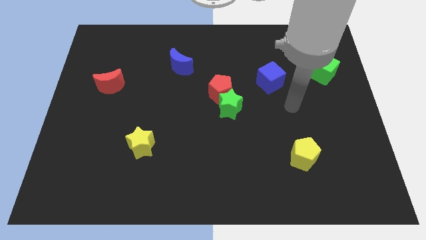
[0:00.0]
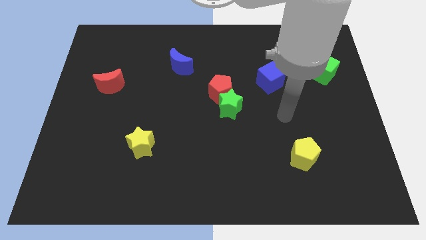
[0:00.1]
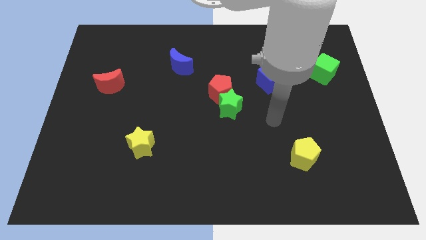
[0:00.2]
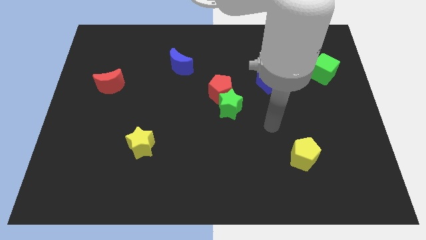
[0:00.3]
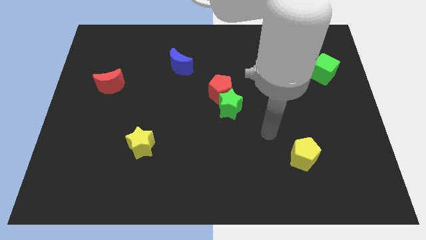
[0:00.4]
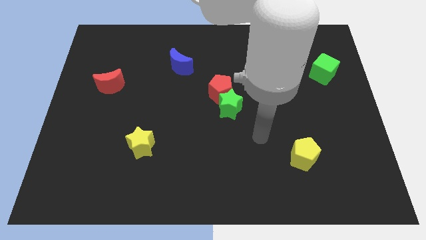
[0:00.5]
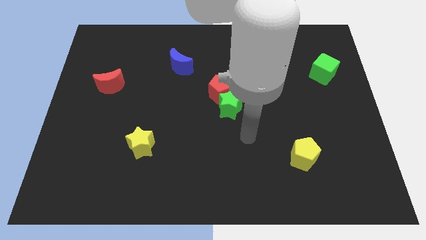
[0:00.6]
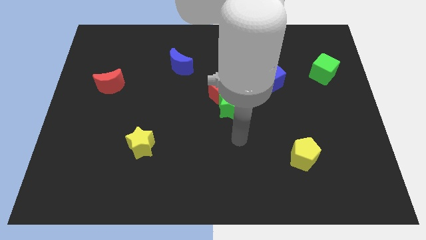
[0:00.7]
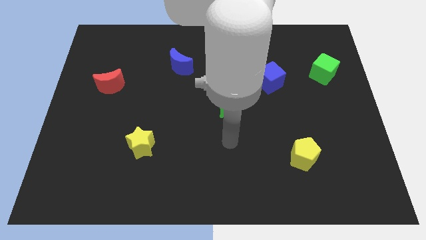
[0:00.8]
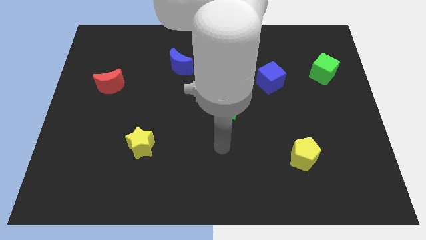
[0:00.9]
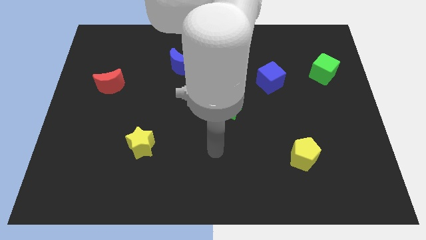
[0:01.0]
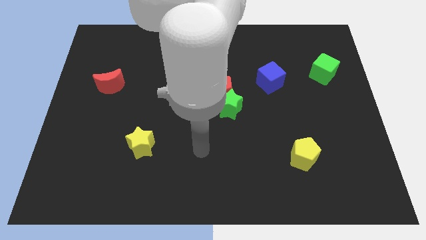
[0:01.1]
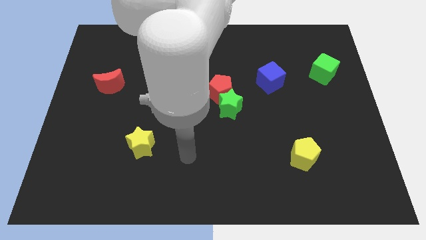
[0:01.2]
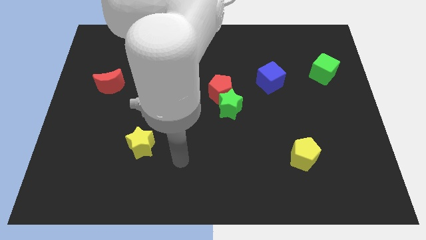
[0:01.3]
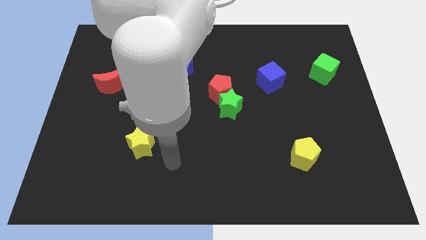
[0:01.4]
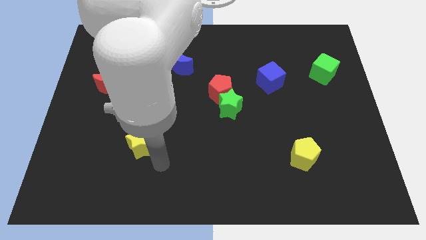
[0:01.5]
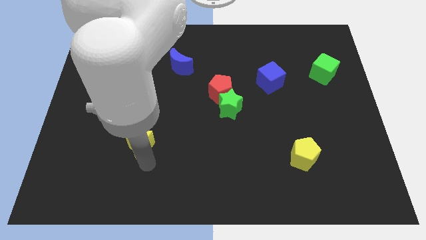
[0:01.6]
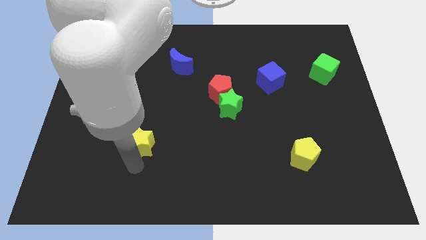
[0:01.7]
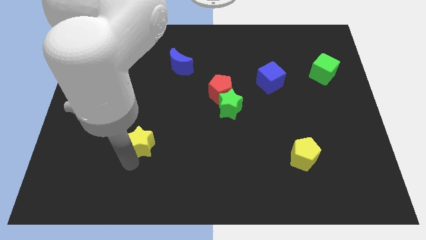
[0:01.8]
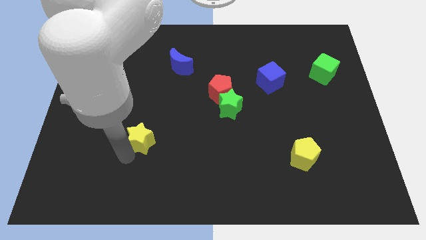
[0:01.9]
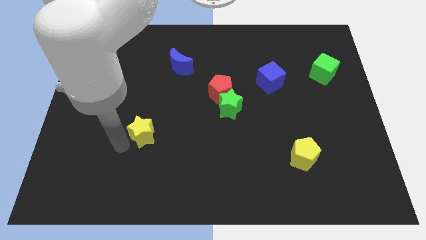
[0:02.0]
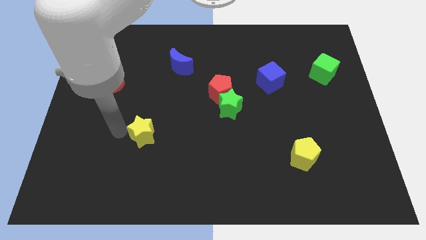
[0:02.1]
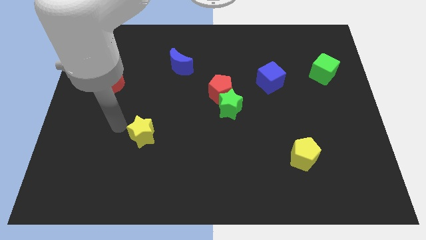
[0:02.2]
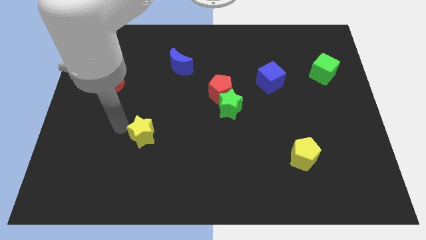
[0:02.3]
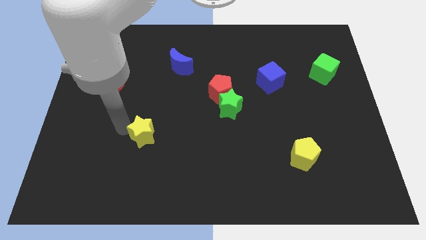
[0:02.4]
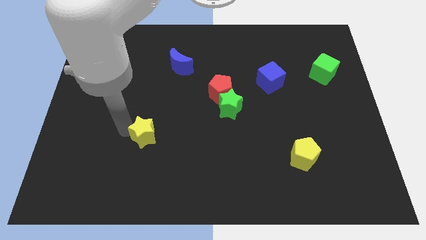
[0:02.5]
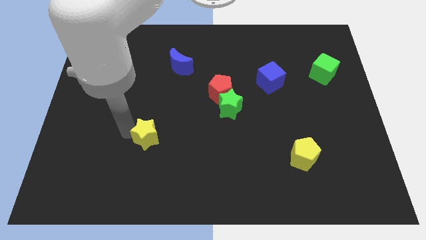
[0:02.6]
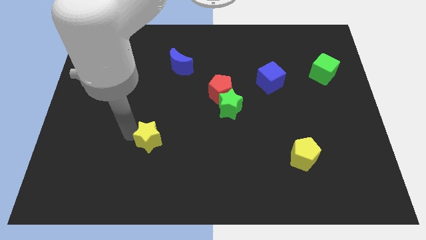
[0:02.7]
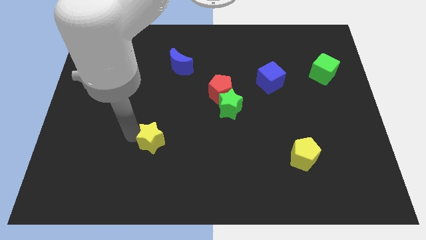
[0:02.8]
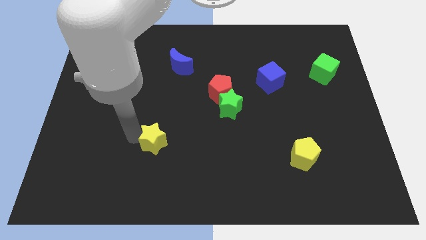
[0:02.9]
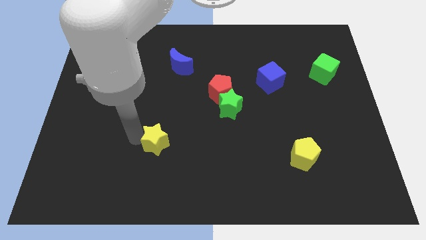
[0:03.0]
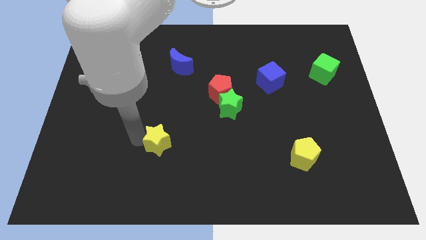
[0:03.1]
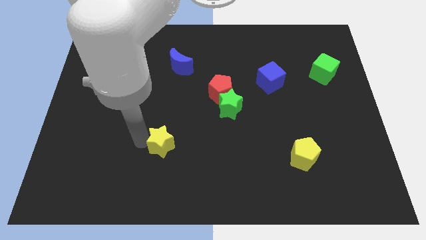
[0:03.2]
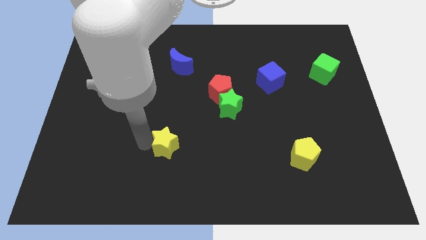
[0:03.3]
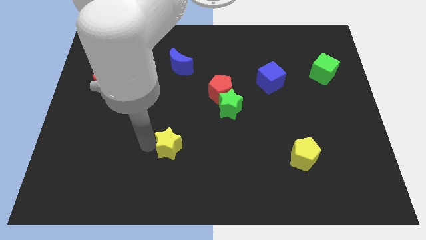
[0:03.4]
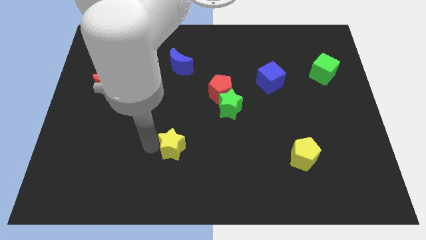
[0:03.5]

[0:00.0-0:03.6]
push the yellow star right somewhat

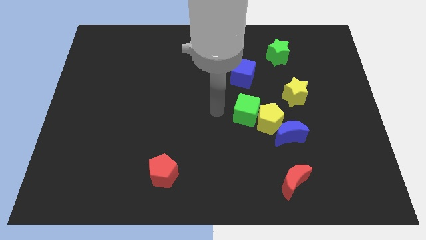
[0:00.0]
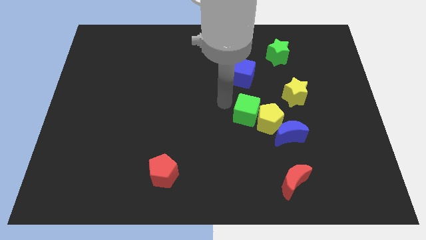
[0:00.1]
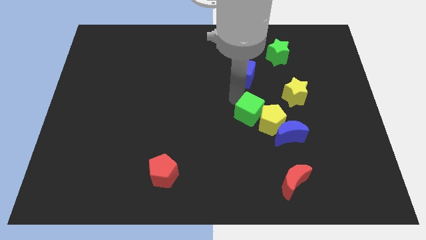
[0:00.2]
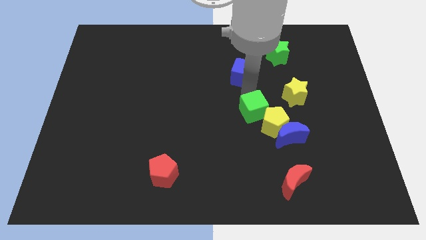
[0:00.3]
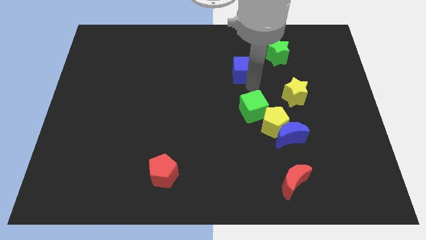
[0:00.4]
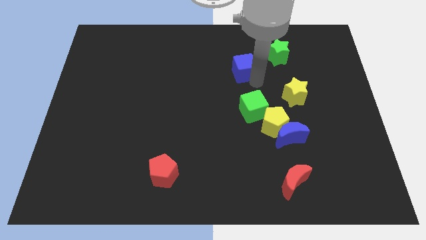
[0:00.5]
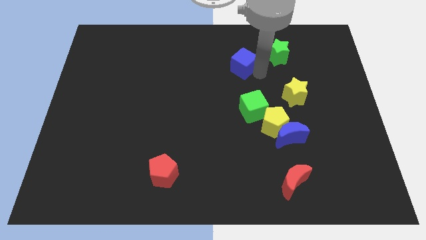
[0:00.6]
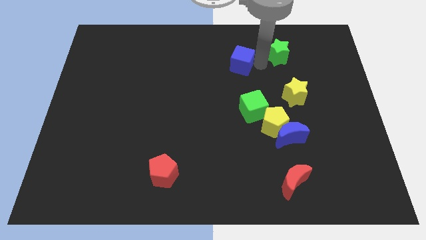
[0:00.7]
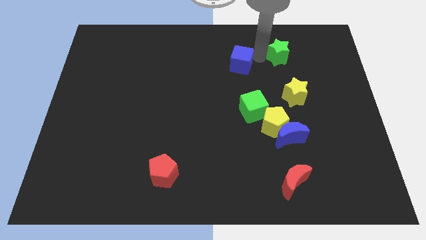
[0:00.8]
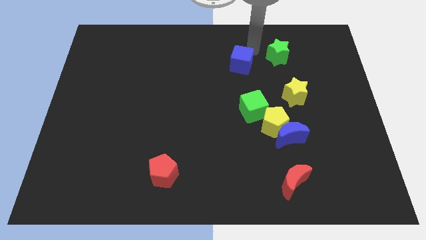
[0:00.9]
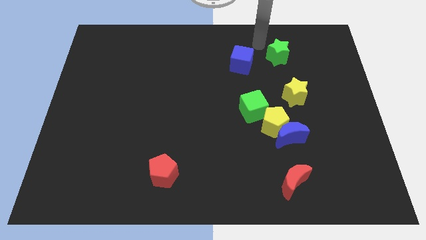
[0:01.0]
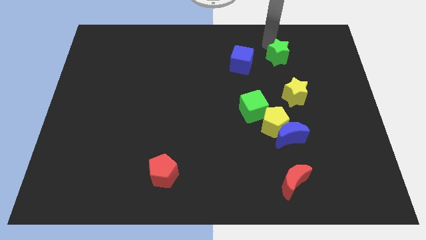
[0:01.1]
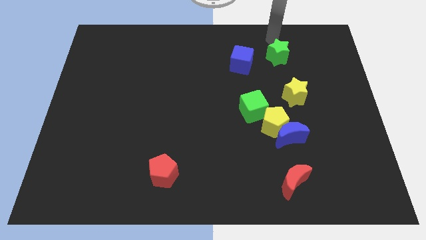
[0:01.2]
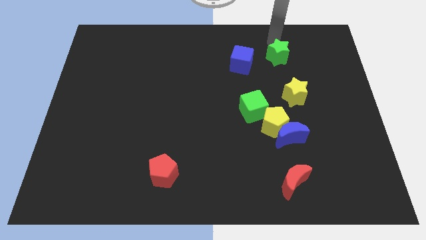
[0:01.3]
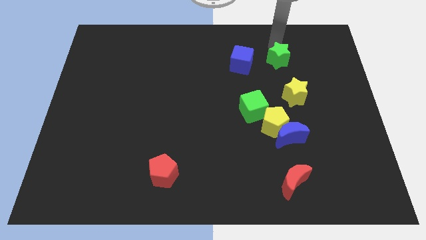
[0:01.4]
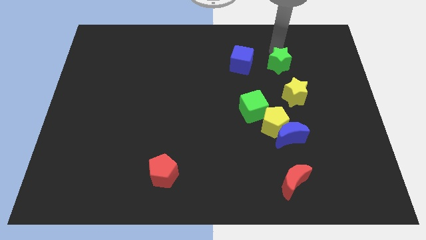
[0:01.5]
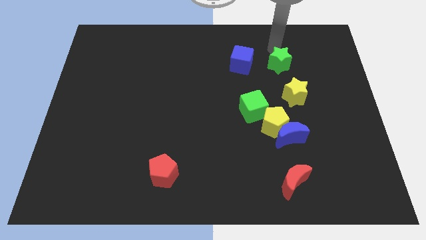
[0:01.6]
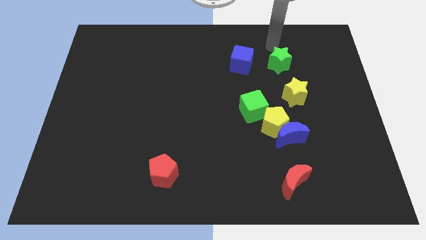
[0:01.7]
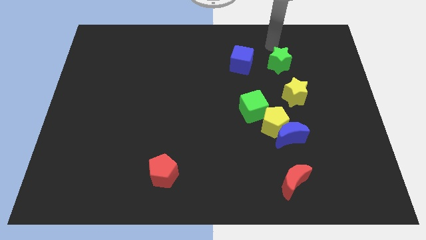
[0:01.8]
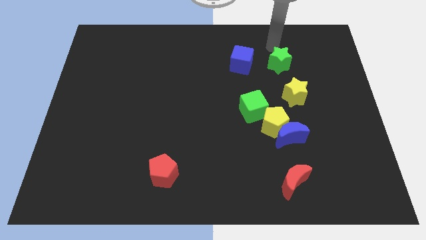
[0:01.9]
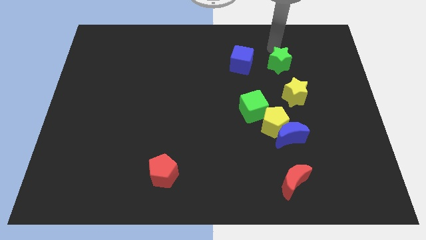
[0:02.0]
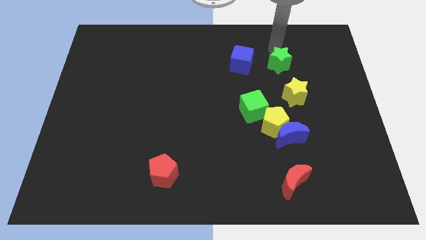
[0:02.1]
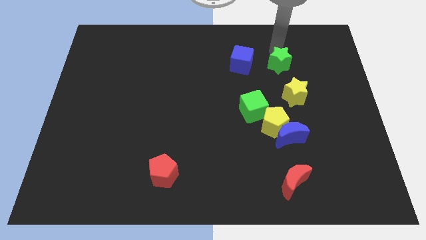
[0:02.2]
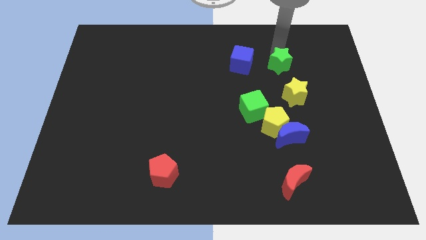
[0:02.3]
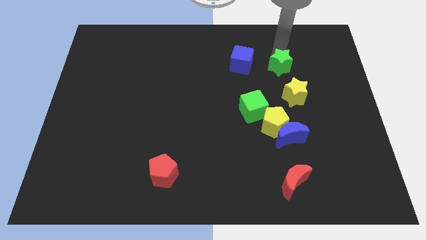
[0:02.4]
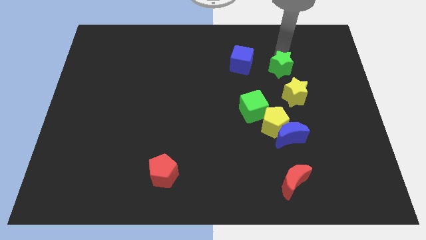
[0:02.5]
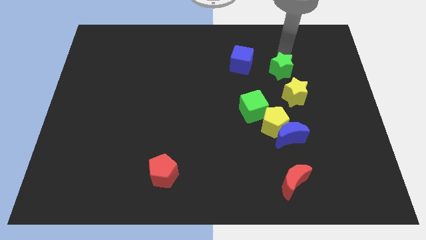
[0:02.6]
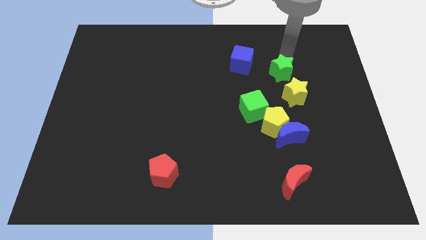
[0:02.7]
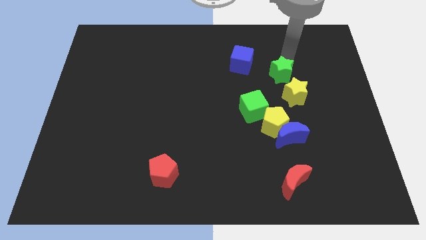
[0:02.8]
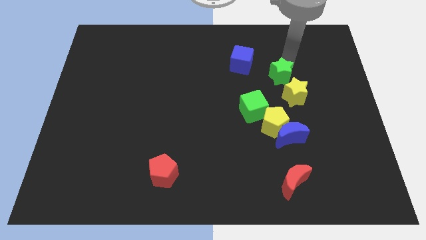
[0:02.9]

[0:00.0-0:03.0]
slide the green star down a little bit

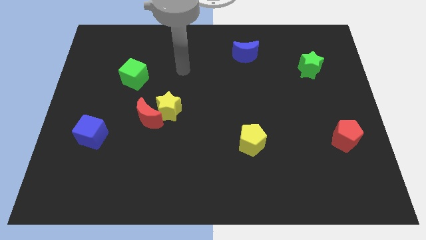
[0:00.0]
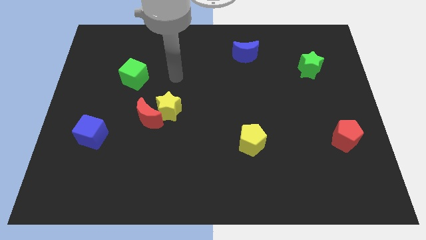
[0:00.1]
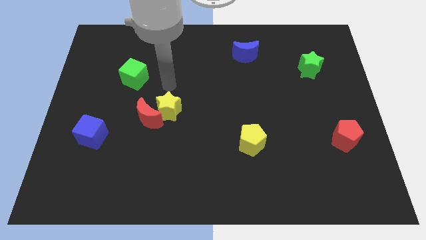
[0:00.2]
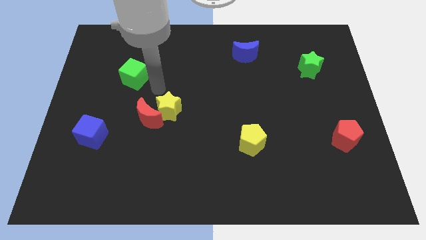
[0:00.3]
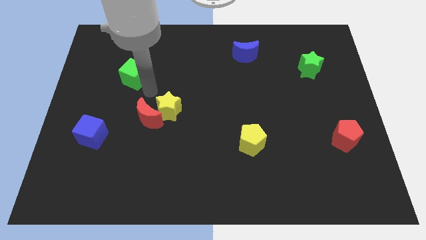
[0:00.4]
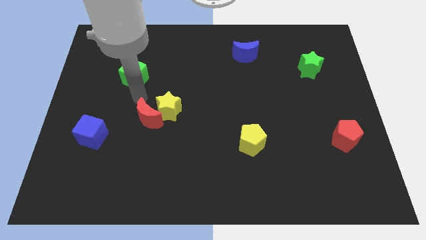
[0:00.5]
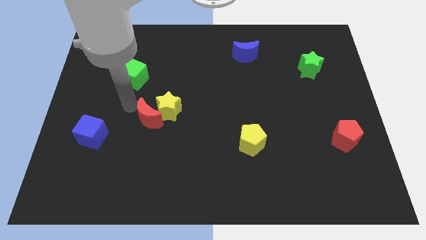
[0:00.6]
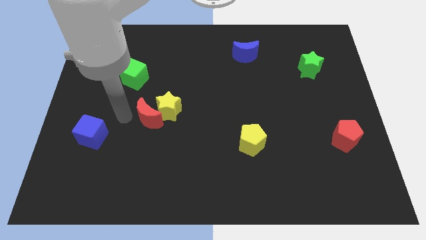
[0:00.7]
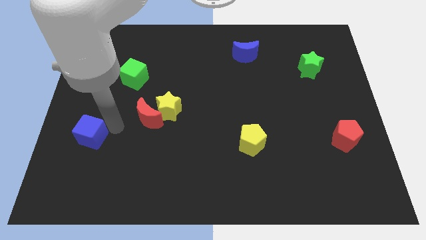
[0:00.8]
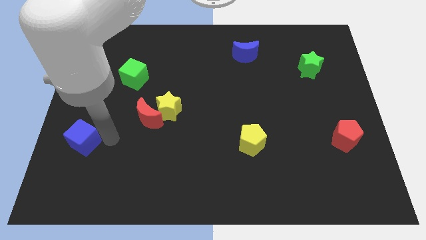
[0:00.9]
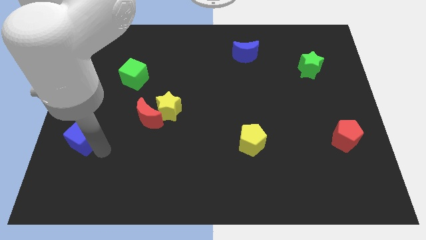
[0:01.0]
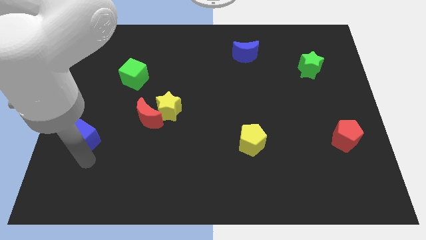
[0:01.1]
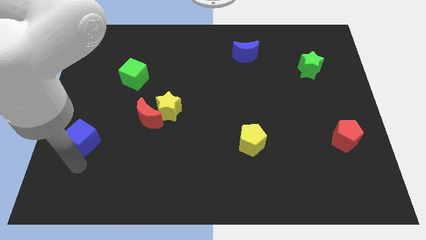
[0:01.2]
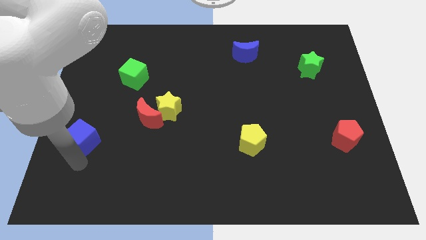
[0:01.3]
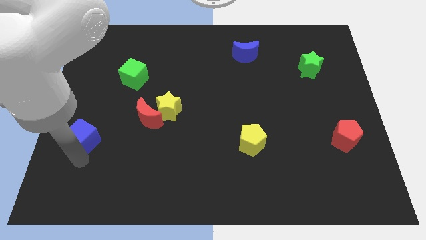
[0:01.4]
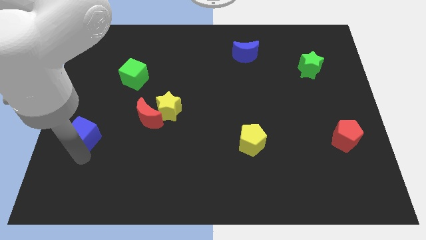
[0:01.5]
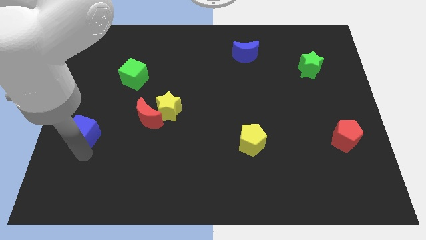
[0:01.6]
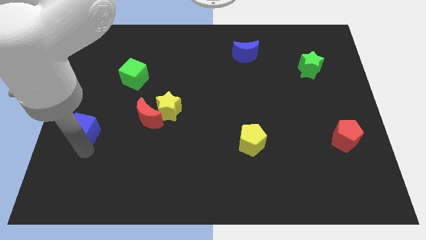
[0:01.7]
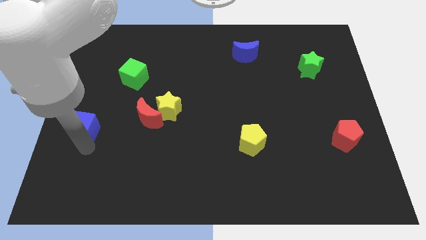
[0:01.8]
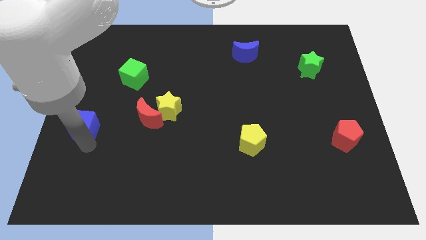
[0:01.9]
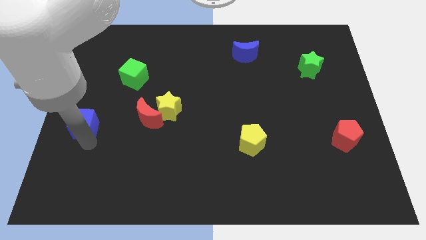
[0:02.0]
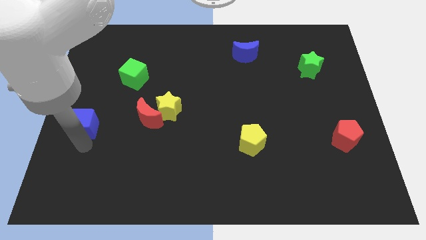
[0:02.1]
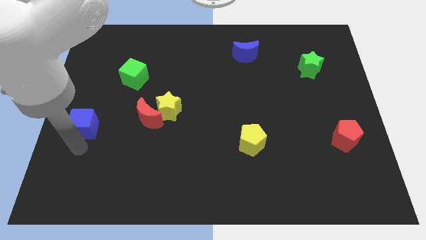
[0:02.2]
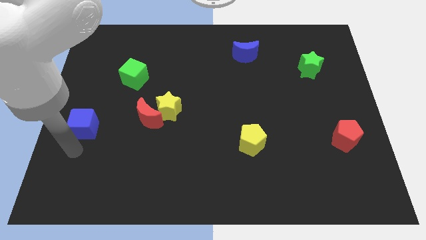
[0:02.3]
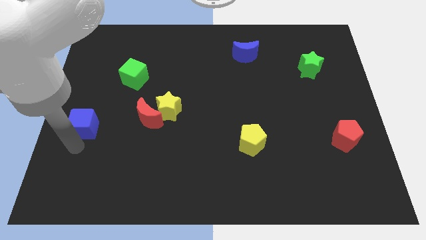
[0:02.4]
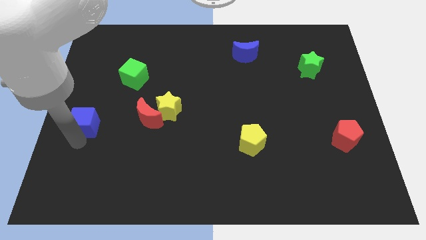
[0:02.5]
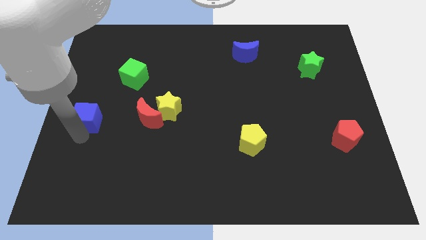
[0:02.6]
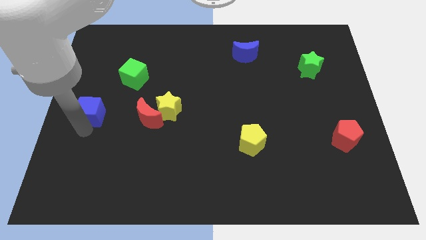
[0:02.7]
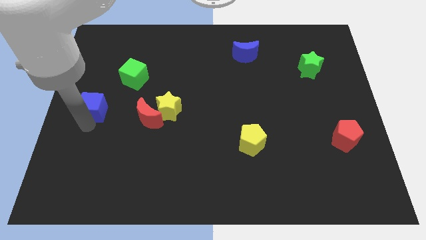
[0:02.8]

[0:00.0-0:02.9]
slightly slide the blue cube upwards
